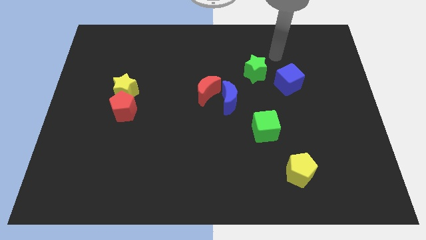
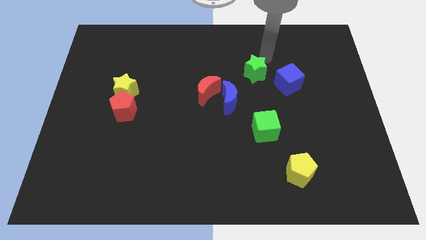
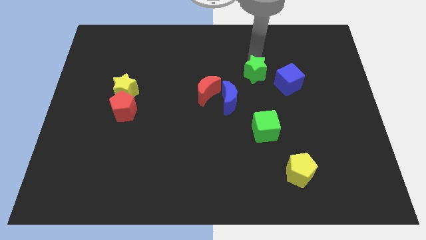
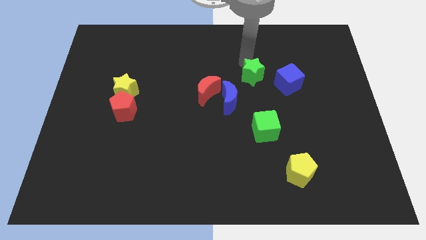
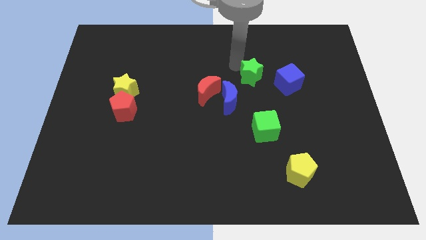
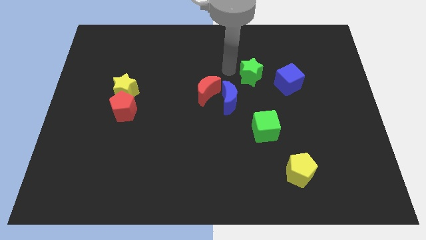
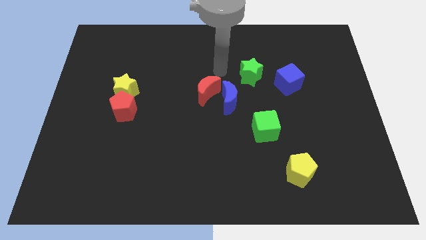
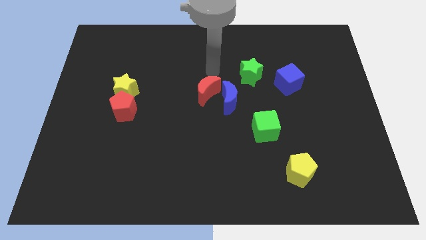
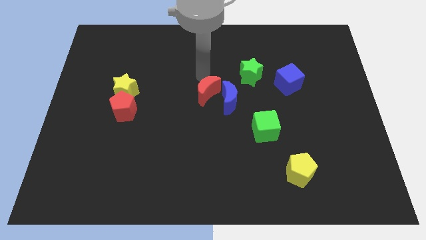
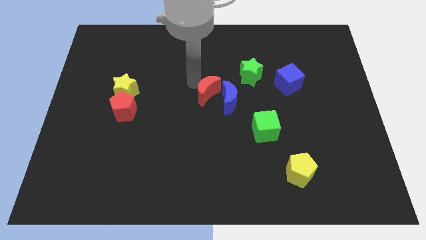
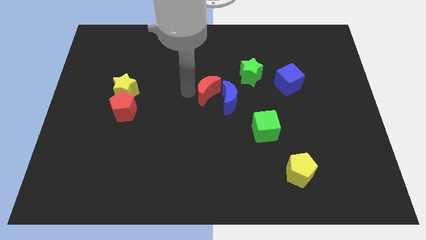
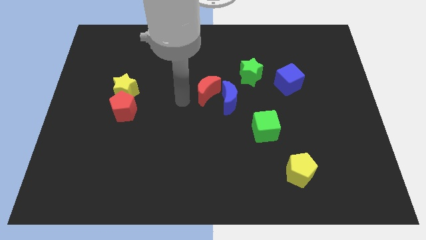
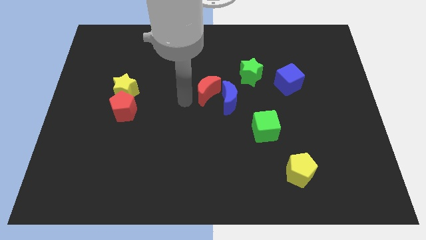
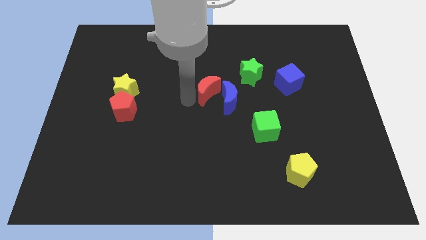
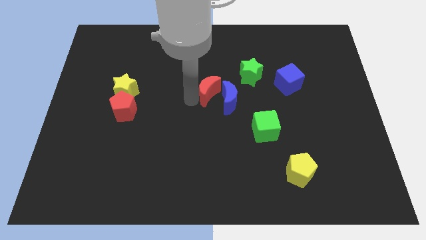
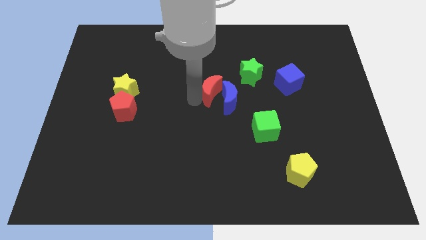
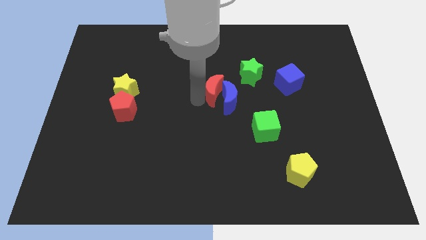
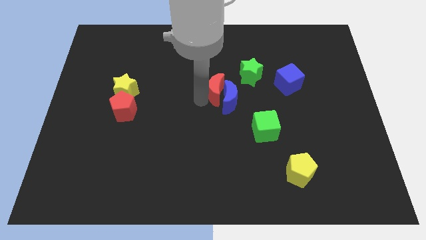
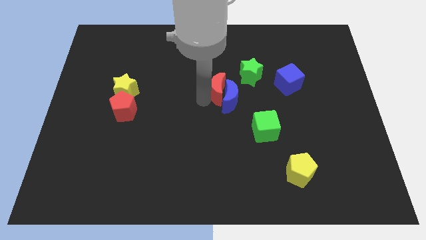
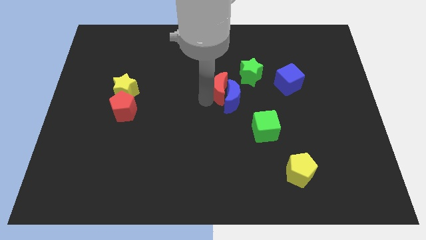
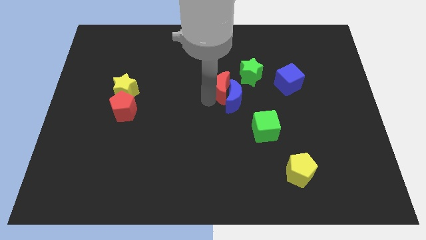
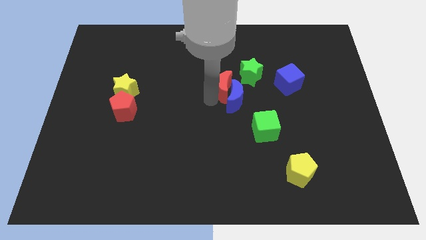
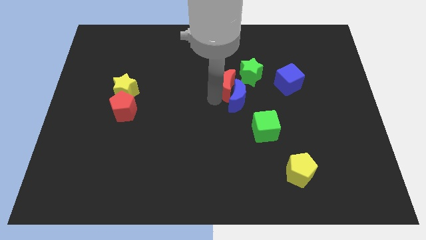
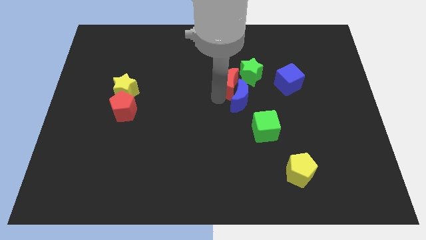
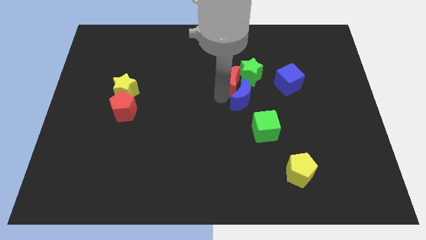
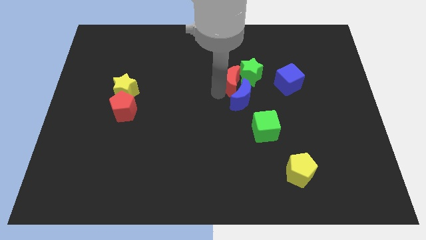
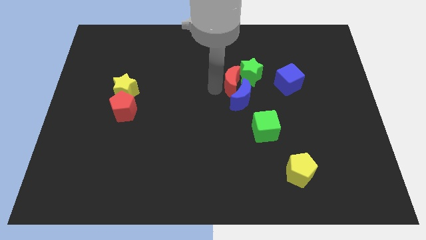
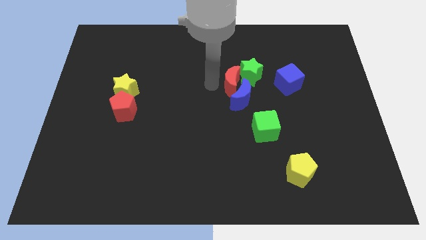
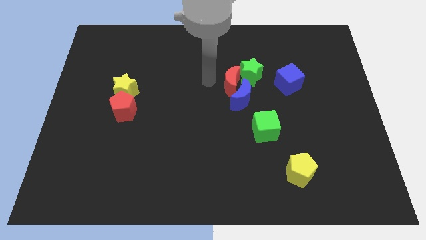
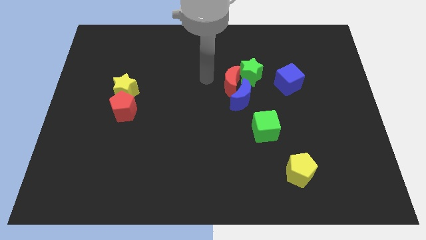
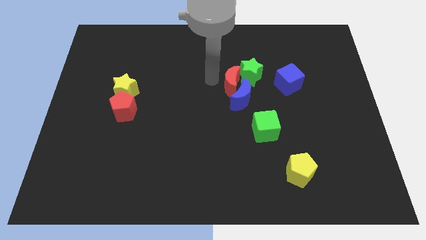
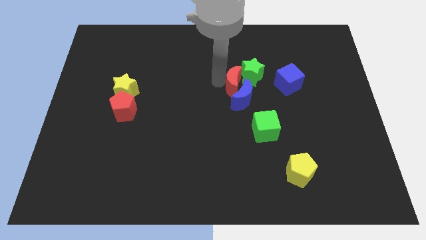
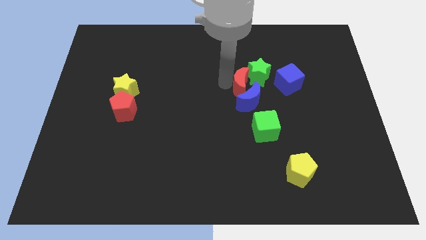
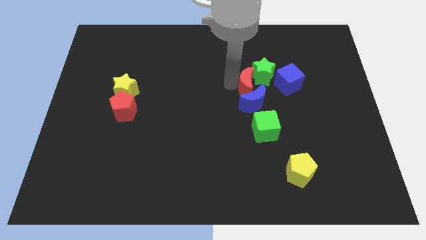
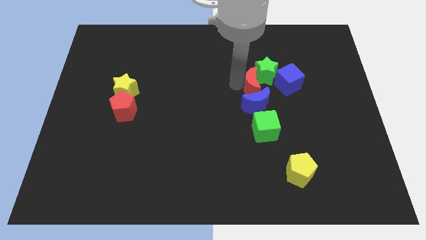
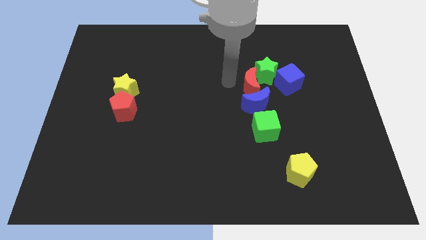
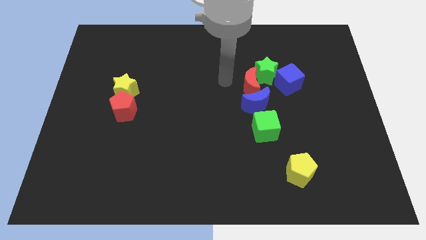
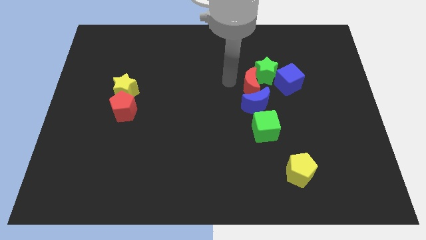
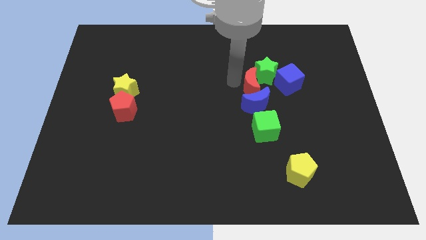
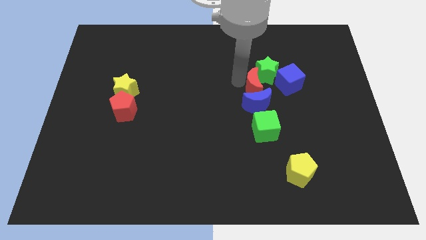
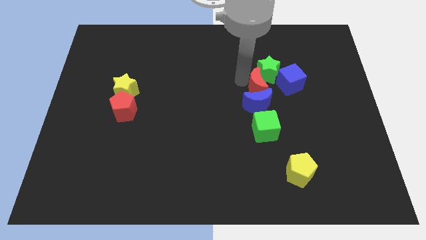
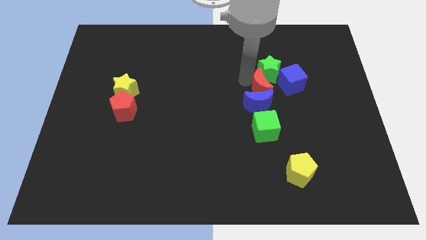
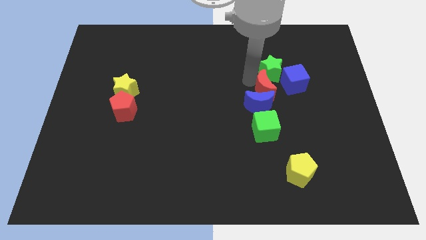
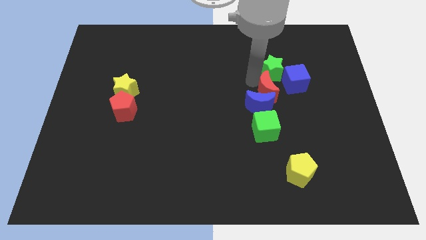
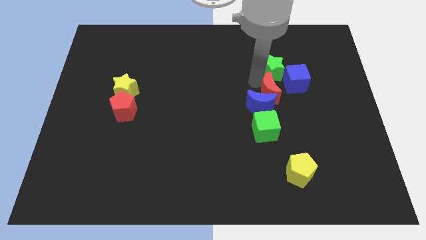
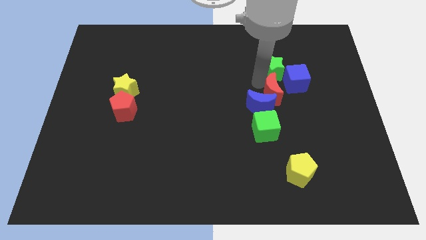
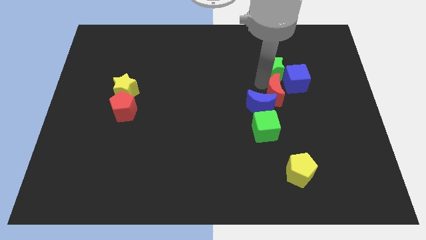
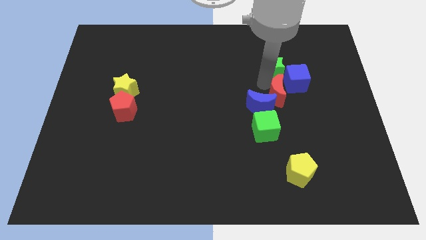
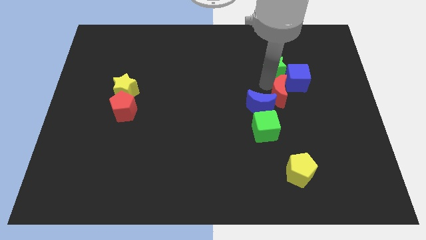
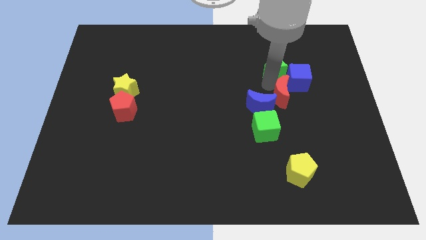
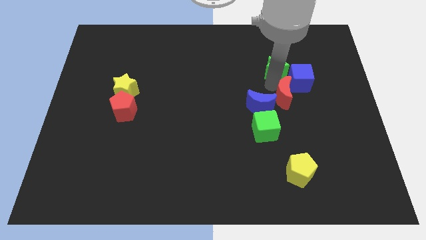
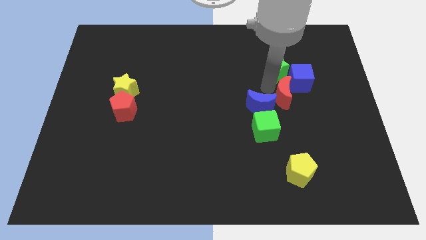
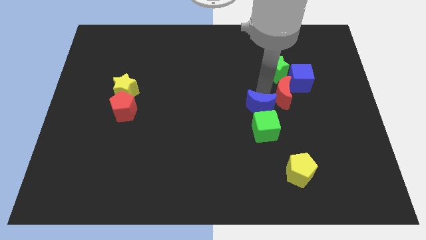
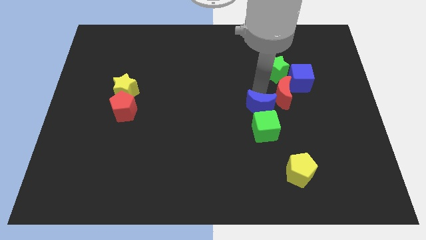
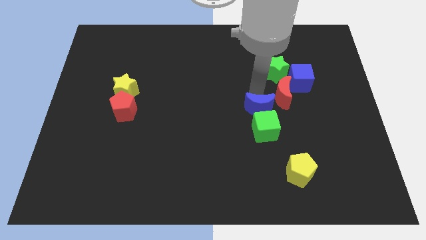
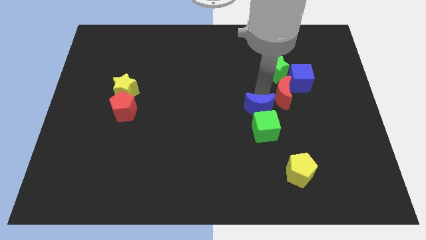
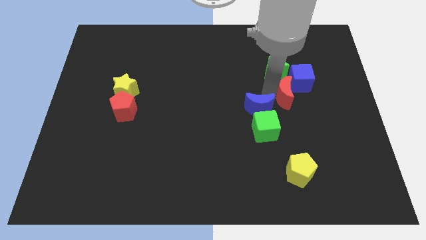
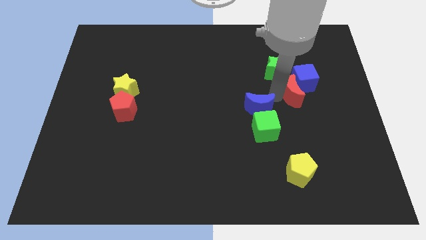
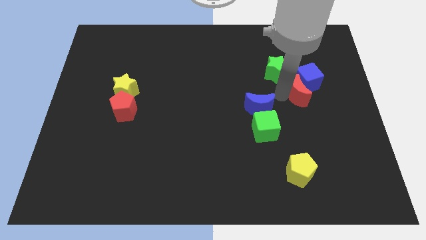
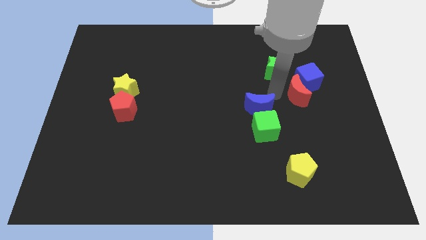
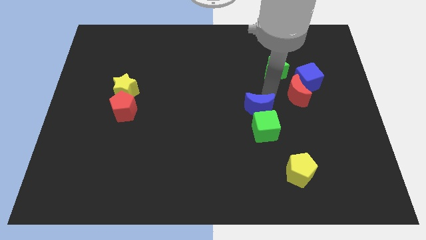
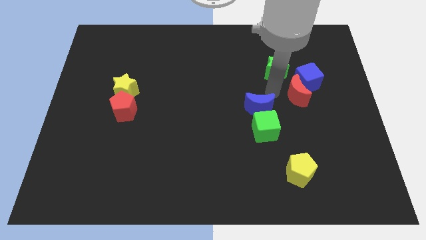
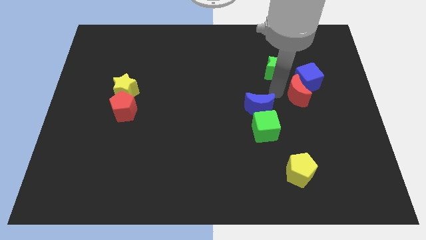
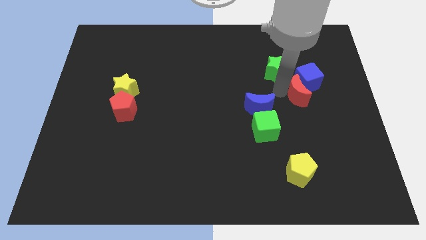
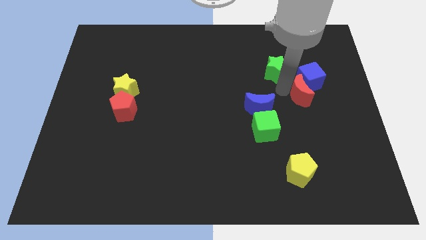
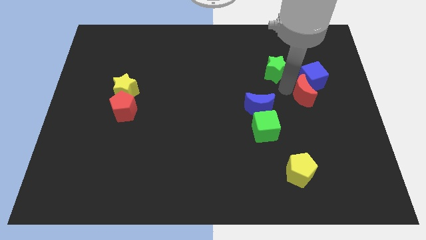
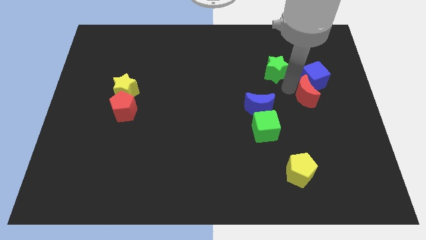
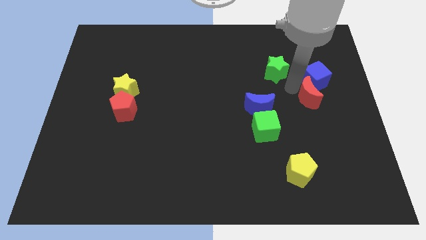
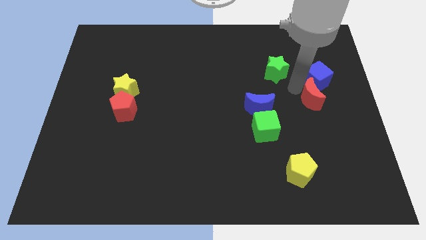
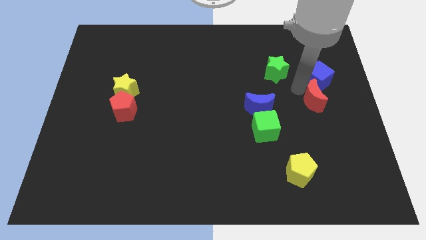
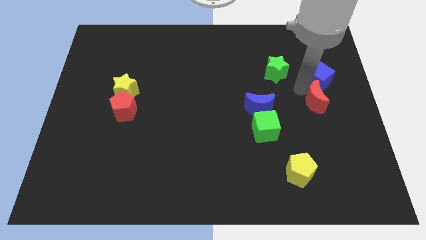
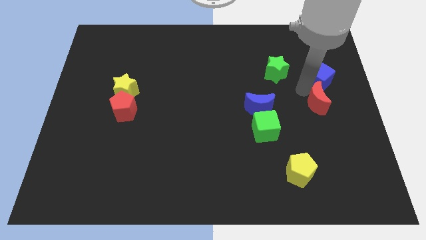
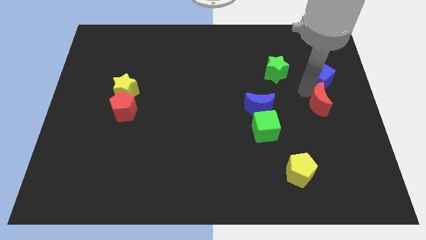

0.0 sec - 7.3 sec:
push the red moon to the right side
